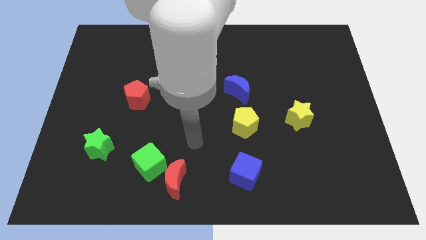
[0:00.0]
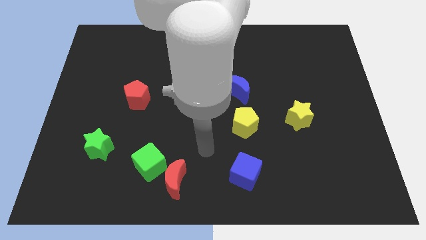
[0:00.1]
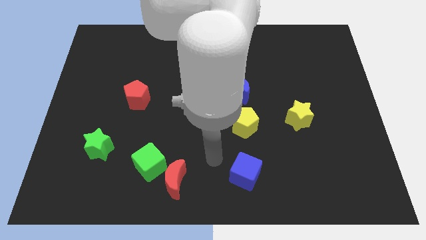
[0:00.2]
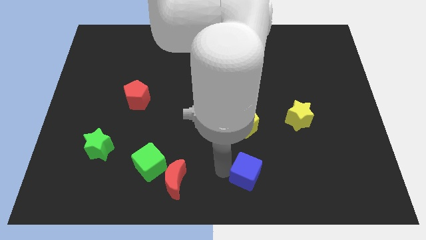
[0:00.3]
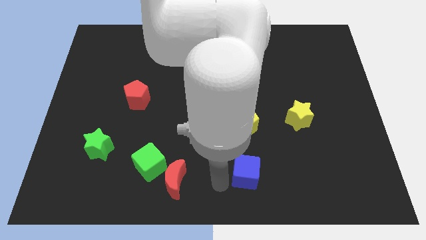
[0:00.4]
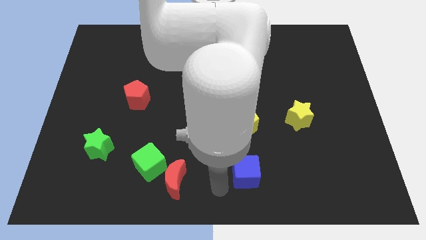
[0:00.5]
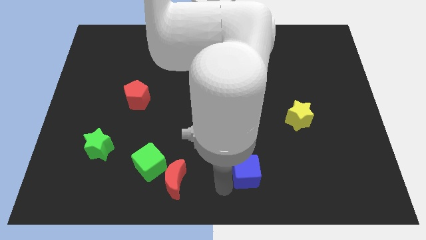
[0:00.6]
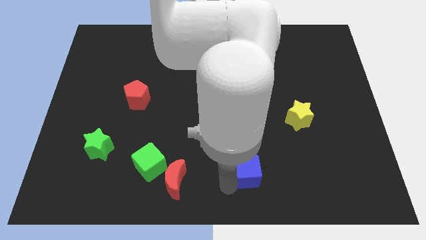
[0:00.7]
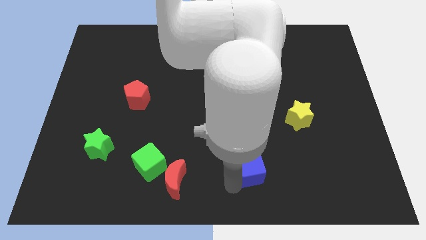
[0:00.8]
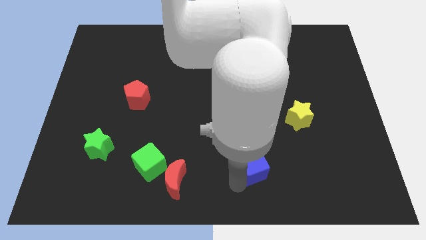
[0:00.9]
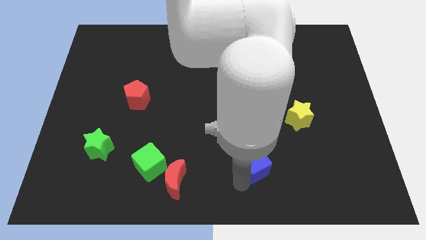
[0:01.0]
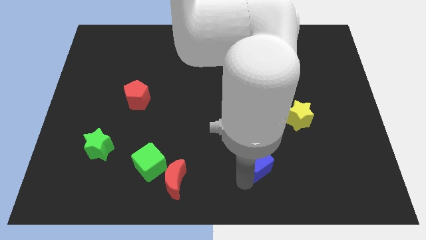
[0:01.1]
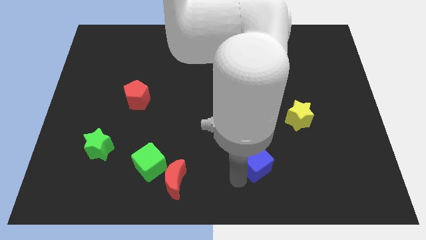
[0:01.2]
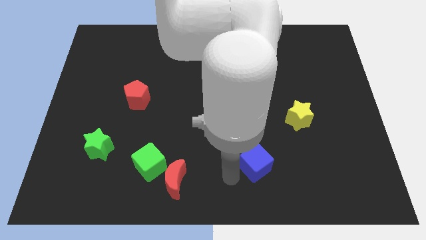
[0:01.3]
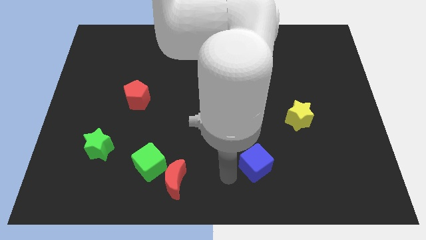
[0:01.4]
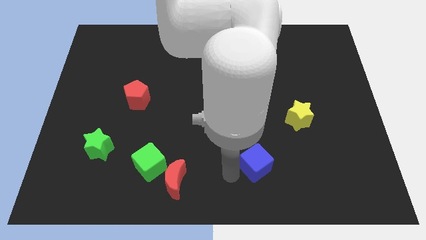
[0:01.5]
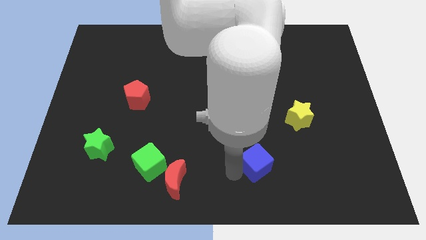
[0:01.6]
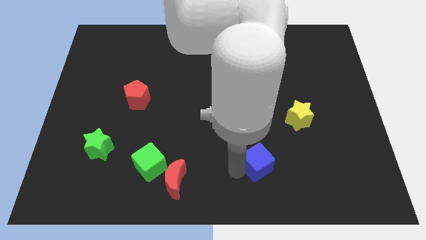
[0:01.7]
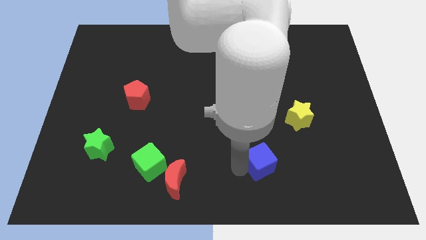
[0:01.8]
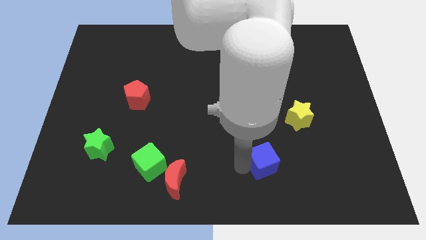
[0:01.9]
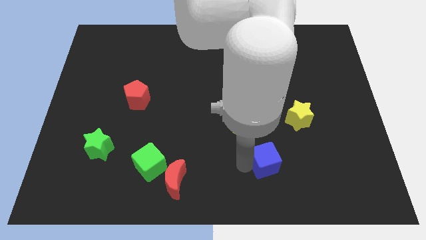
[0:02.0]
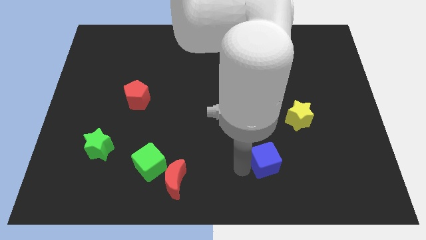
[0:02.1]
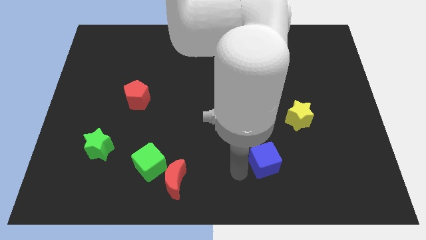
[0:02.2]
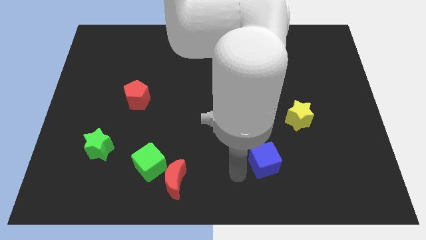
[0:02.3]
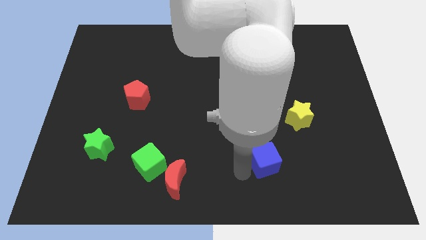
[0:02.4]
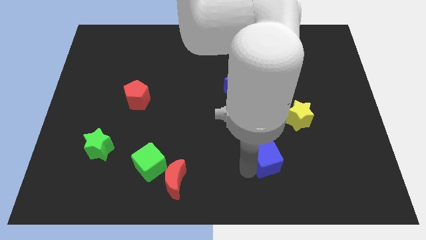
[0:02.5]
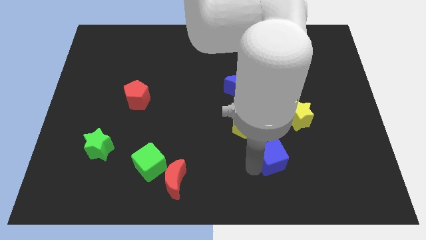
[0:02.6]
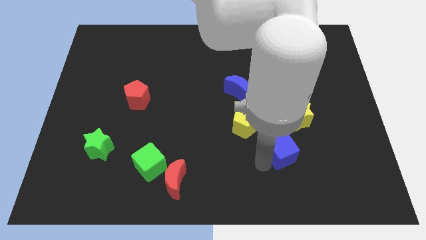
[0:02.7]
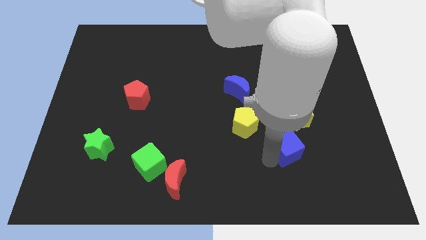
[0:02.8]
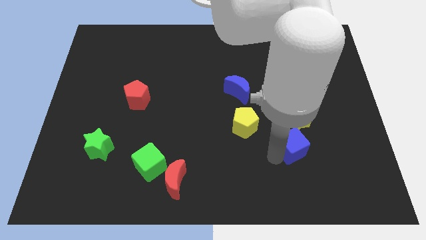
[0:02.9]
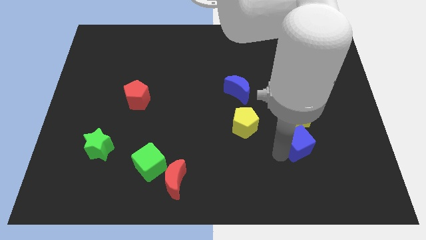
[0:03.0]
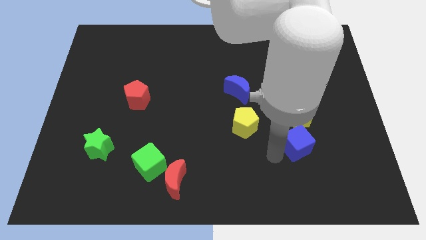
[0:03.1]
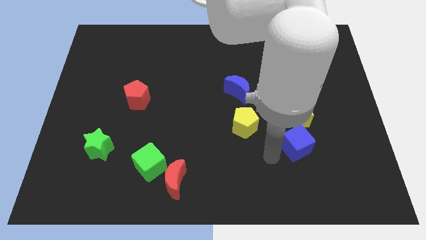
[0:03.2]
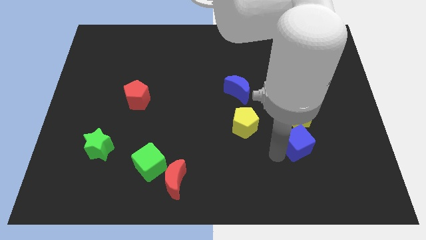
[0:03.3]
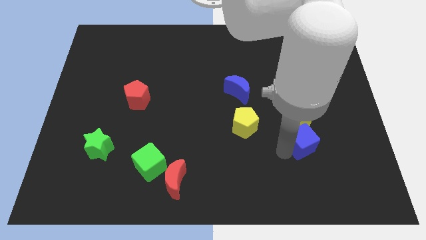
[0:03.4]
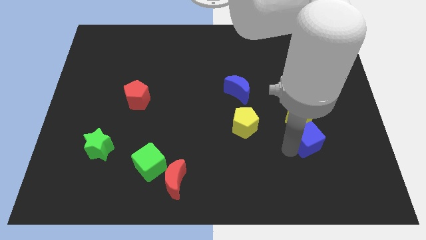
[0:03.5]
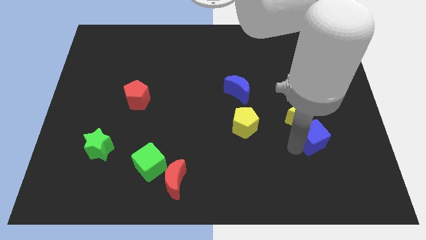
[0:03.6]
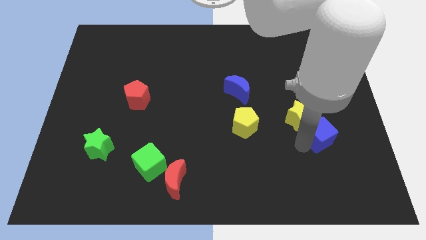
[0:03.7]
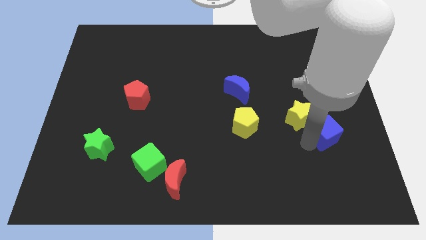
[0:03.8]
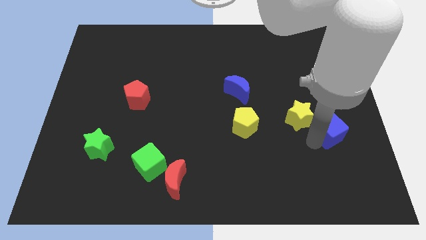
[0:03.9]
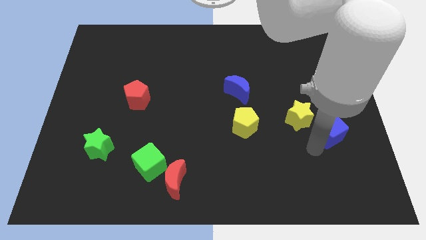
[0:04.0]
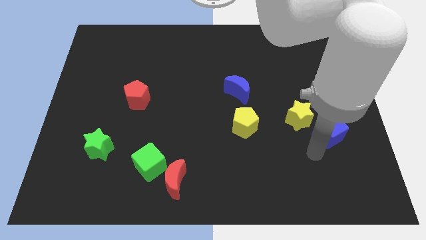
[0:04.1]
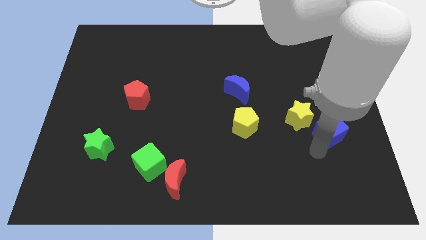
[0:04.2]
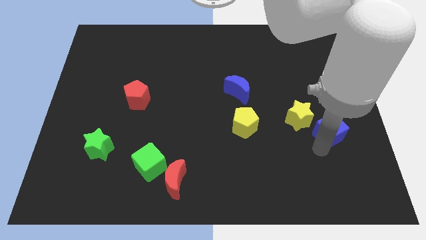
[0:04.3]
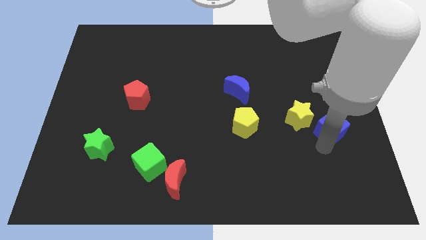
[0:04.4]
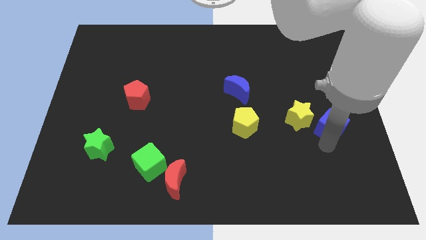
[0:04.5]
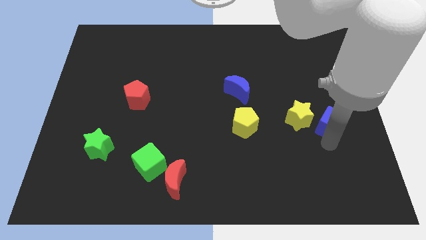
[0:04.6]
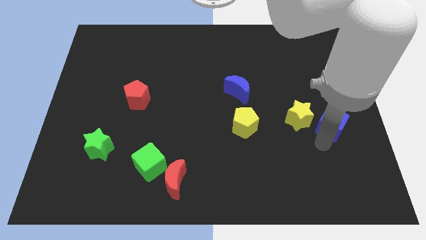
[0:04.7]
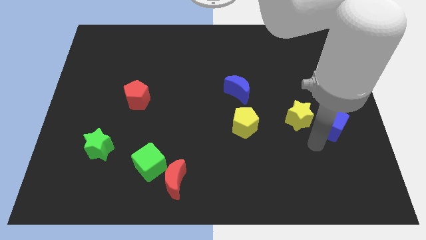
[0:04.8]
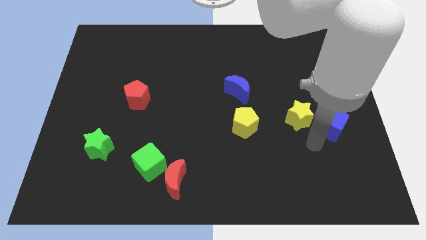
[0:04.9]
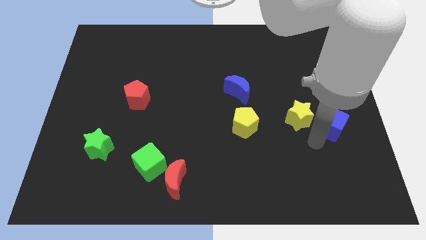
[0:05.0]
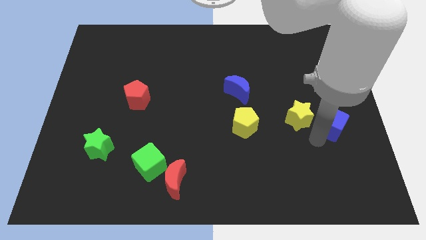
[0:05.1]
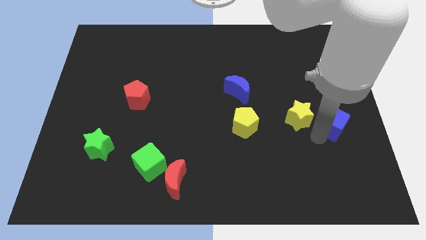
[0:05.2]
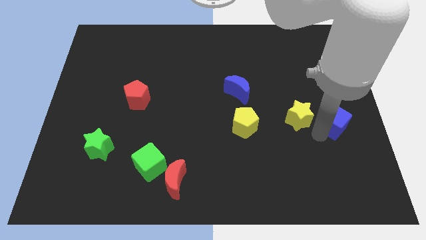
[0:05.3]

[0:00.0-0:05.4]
move the blue cube to the right side

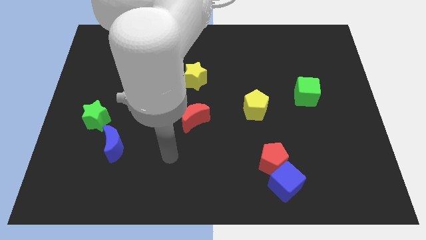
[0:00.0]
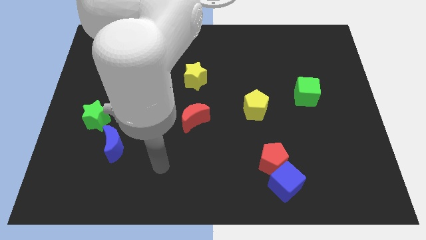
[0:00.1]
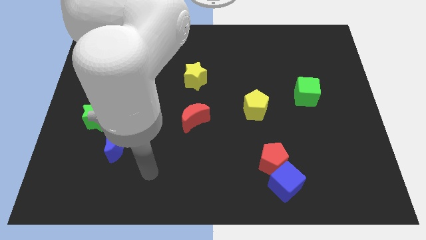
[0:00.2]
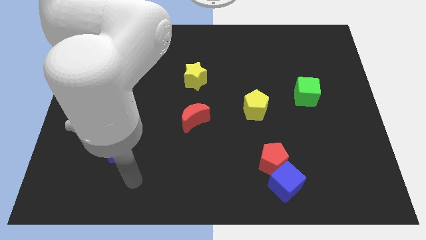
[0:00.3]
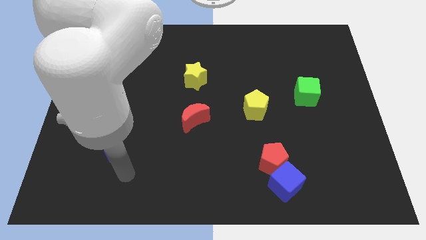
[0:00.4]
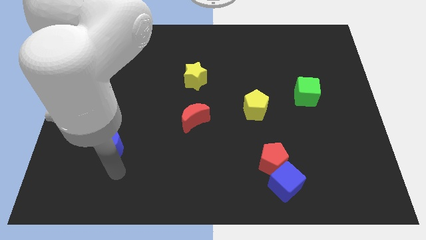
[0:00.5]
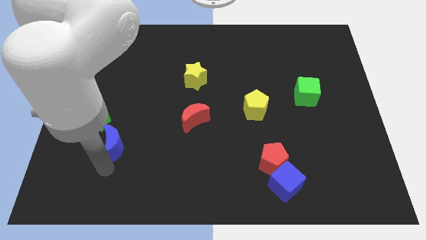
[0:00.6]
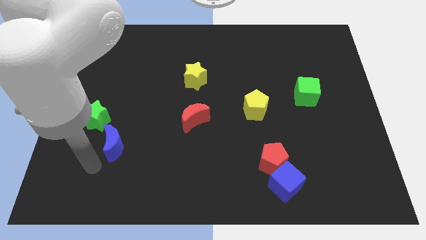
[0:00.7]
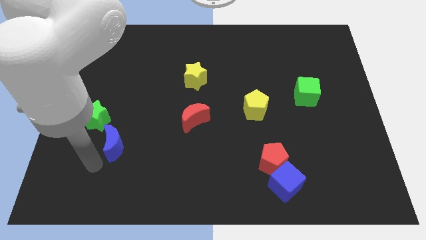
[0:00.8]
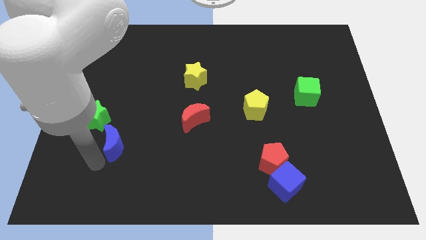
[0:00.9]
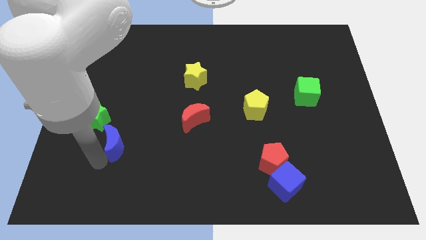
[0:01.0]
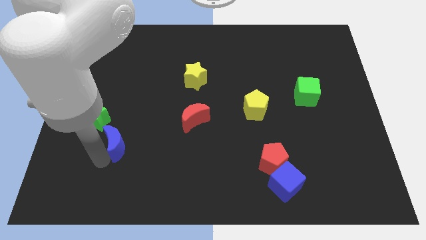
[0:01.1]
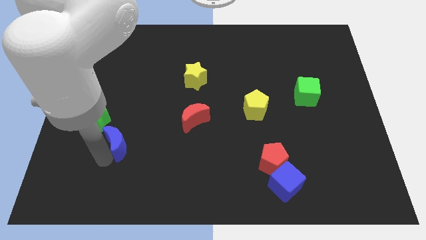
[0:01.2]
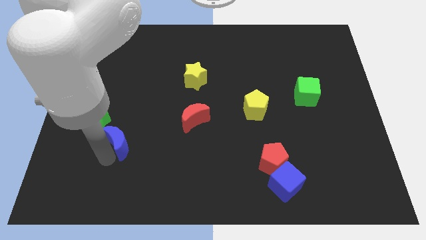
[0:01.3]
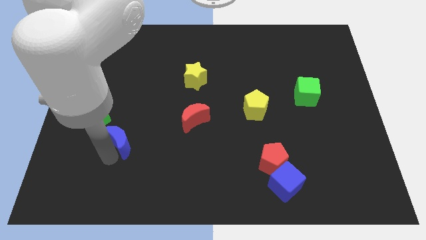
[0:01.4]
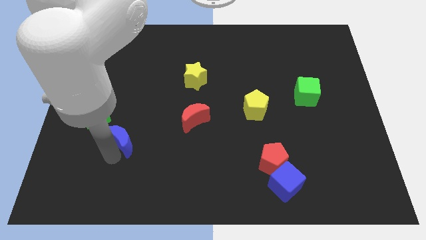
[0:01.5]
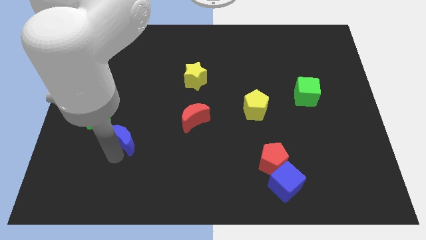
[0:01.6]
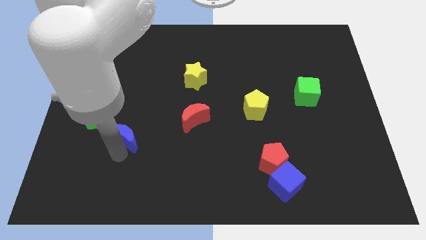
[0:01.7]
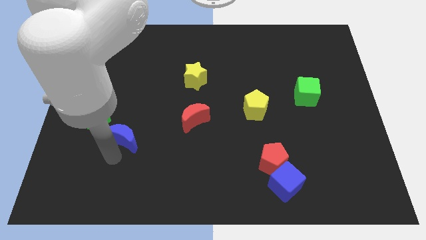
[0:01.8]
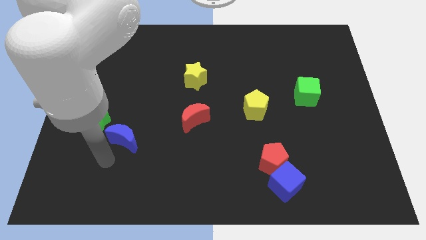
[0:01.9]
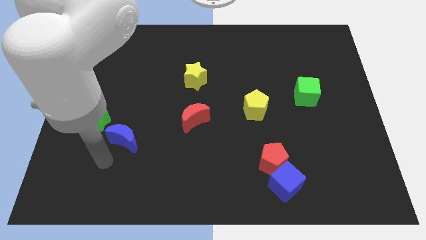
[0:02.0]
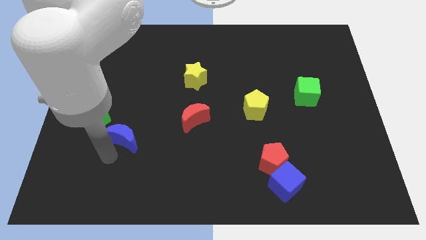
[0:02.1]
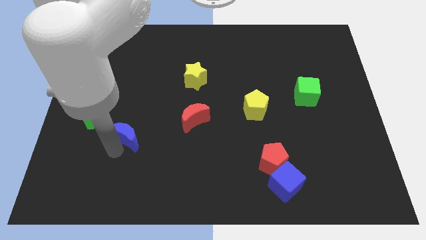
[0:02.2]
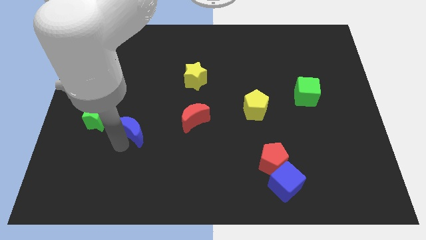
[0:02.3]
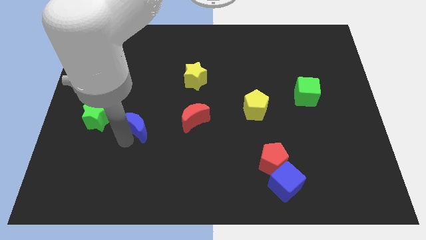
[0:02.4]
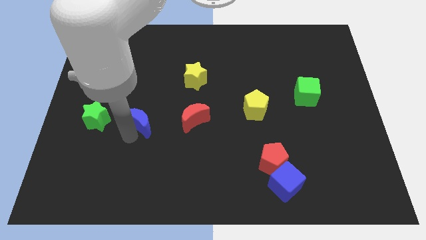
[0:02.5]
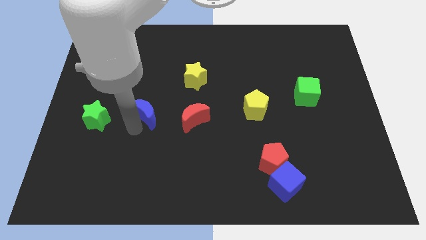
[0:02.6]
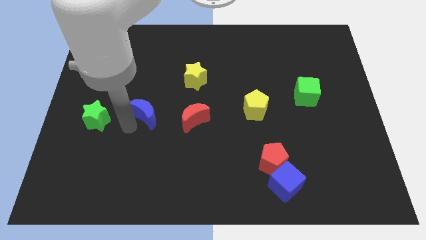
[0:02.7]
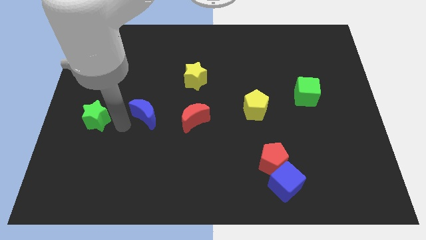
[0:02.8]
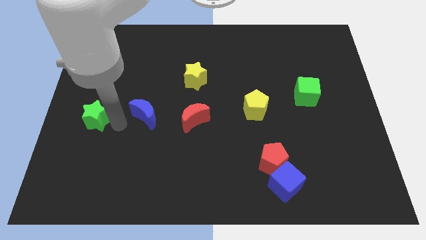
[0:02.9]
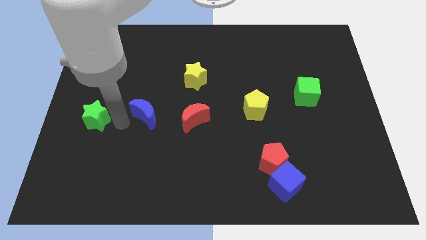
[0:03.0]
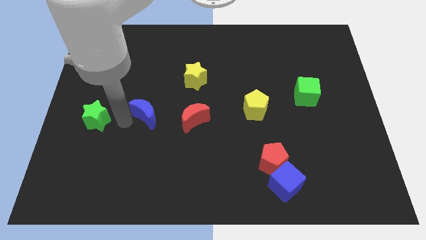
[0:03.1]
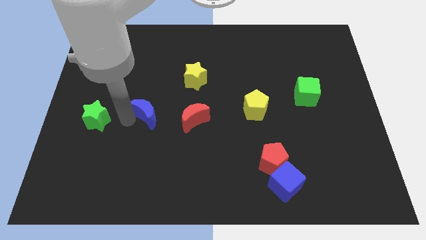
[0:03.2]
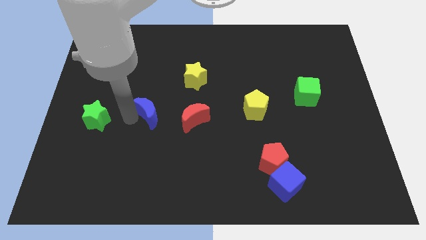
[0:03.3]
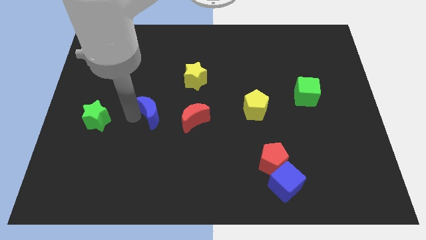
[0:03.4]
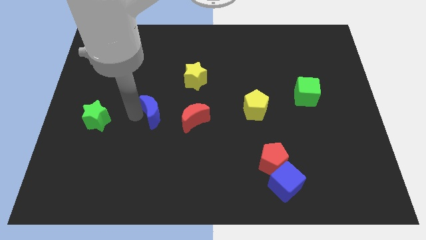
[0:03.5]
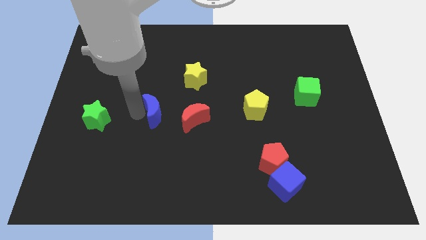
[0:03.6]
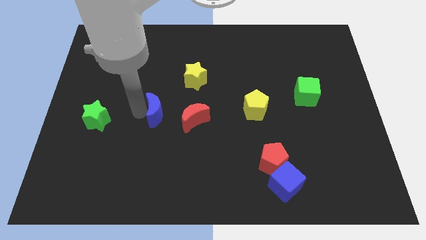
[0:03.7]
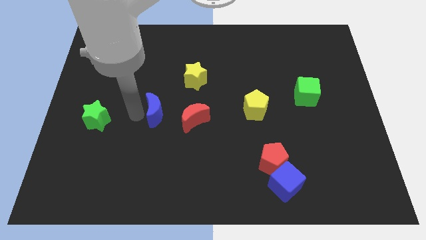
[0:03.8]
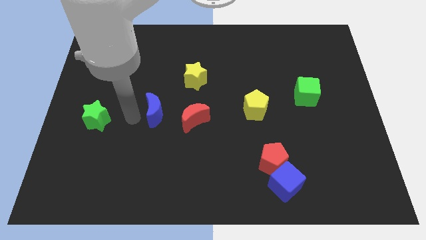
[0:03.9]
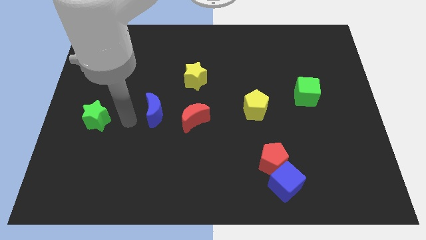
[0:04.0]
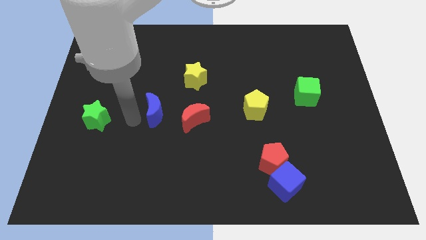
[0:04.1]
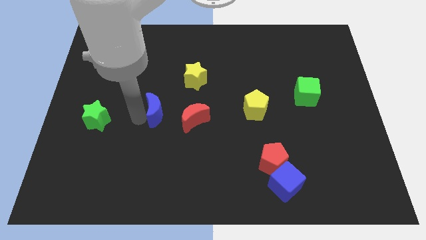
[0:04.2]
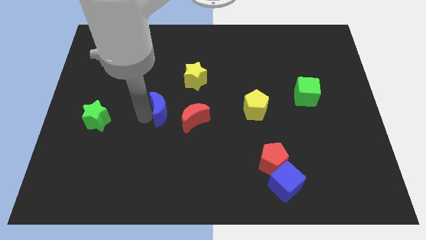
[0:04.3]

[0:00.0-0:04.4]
slide the blue moon to the center of the board
